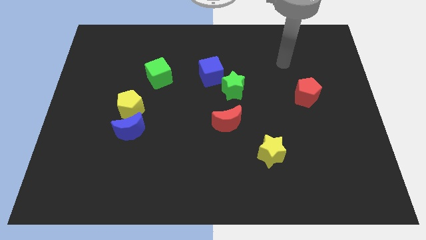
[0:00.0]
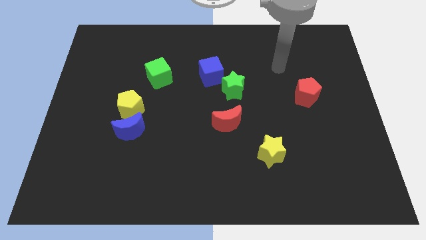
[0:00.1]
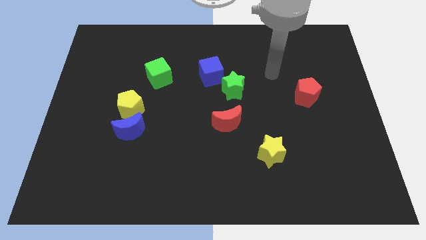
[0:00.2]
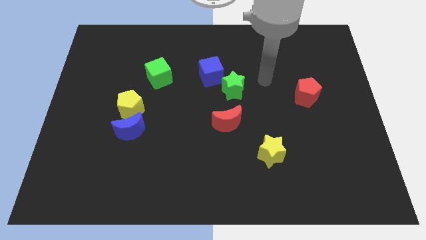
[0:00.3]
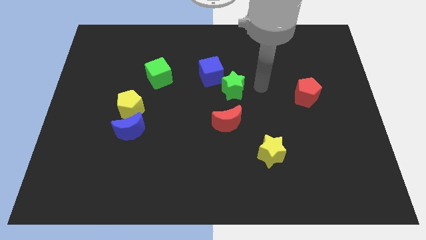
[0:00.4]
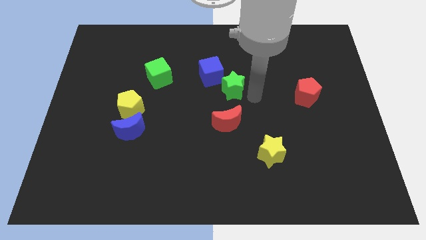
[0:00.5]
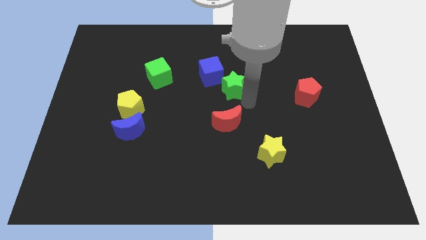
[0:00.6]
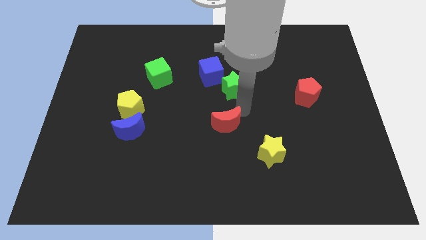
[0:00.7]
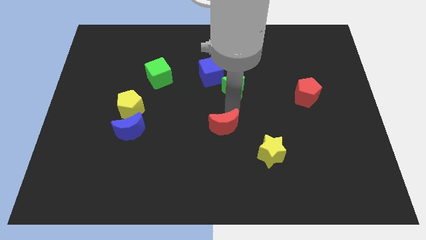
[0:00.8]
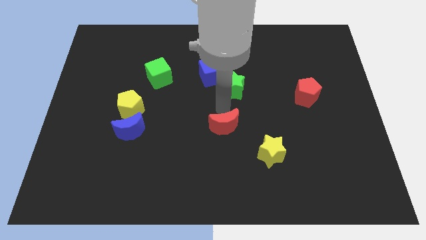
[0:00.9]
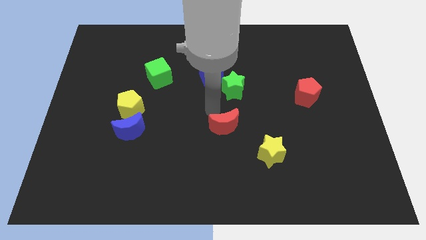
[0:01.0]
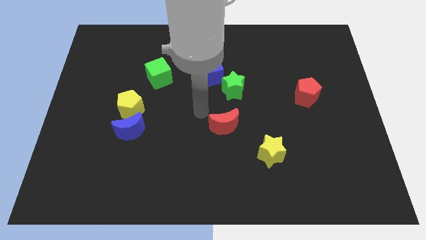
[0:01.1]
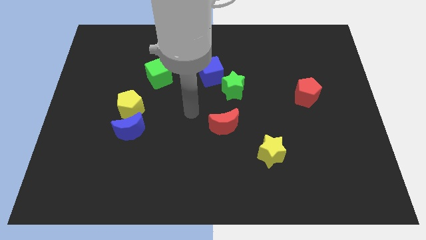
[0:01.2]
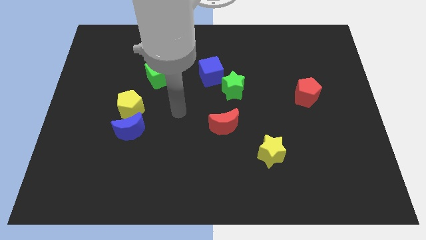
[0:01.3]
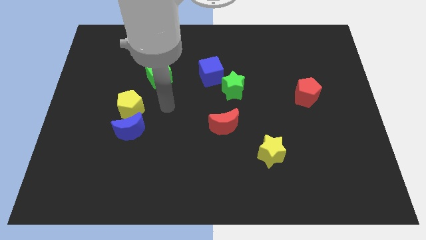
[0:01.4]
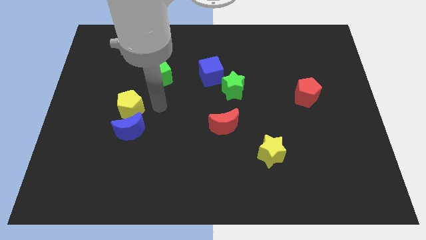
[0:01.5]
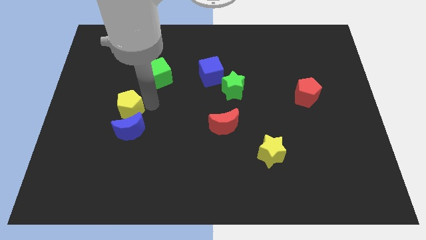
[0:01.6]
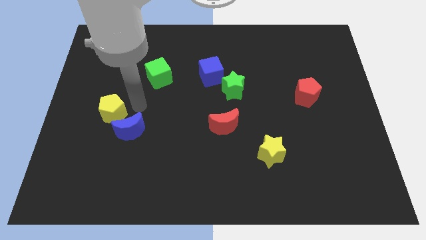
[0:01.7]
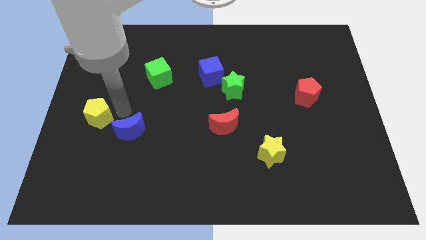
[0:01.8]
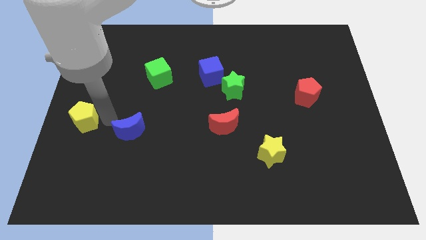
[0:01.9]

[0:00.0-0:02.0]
move the blue moon away from the yellow pentagon

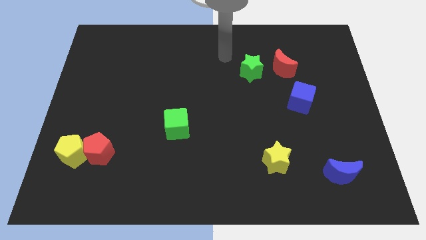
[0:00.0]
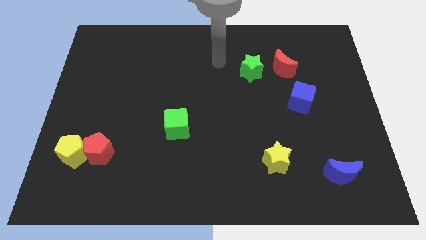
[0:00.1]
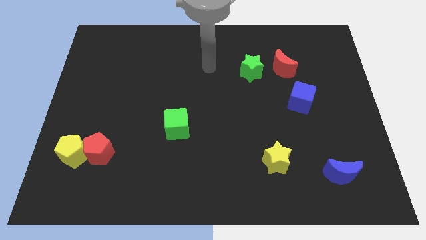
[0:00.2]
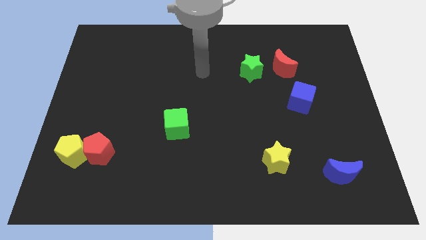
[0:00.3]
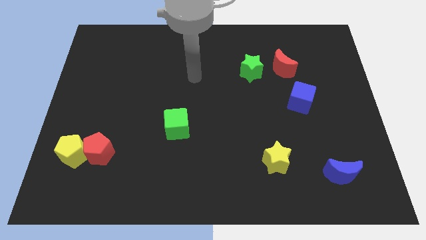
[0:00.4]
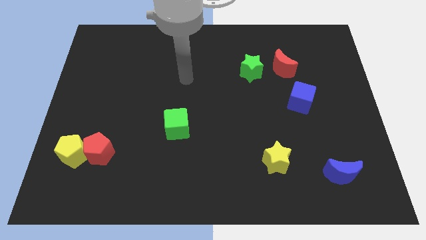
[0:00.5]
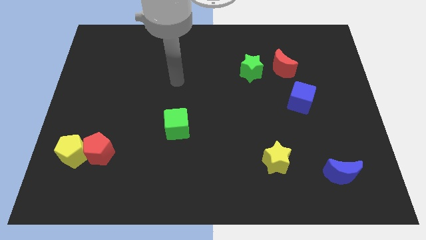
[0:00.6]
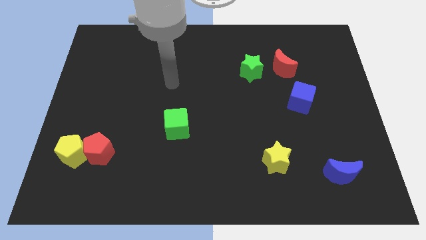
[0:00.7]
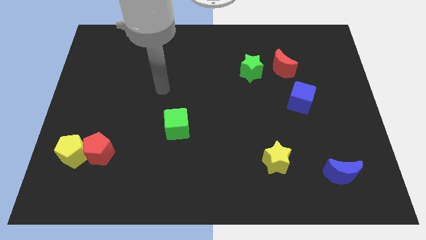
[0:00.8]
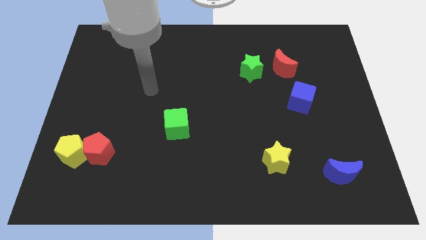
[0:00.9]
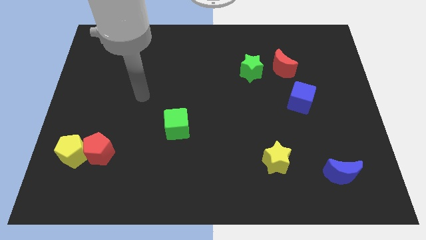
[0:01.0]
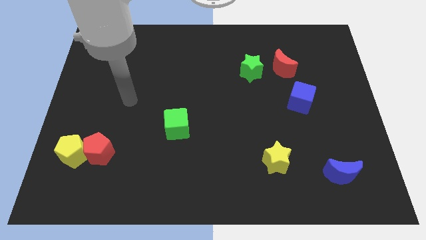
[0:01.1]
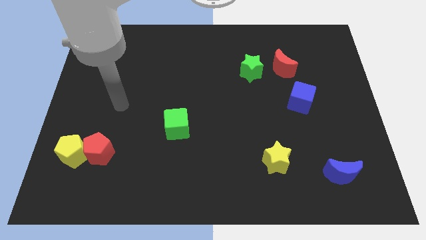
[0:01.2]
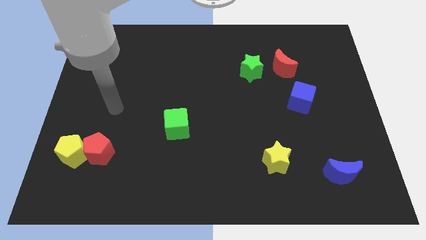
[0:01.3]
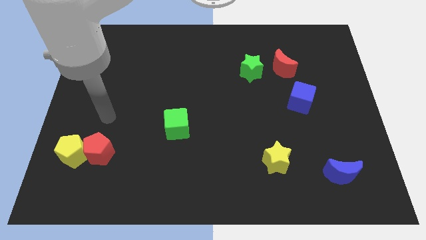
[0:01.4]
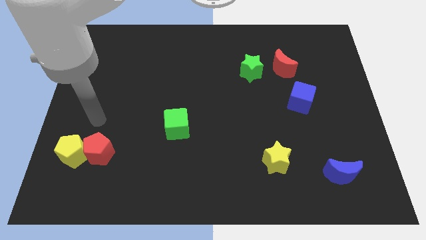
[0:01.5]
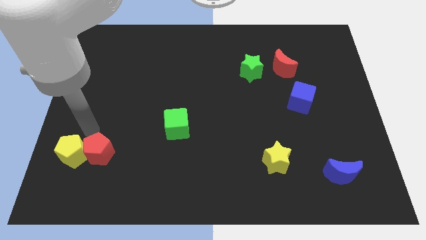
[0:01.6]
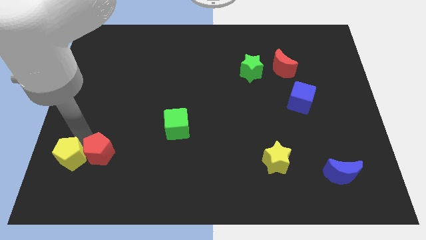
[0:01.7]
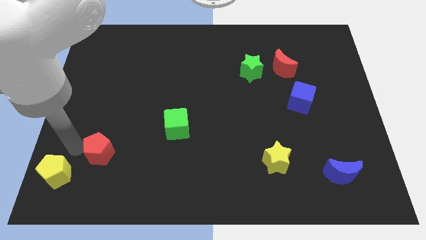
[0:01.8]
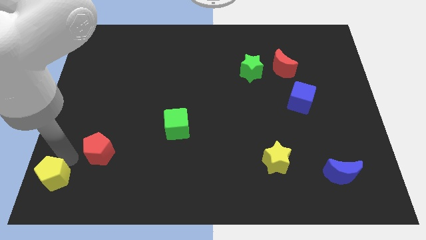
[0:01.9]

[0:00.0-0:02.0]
separate the red pentagon from the yellow pentagon

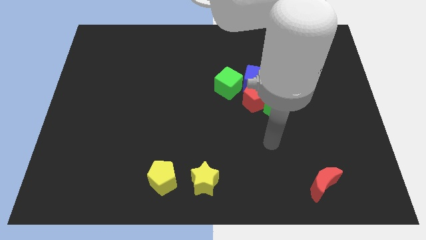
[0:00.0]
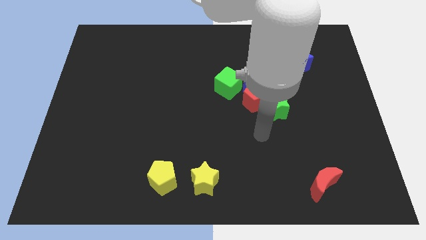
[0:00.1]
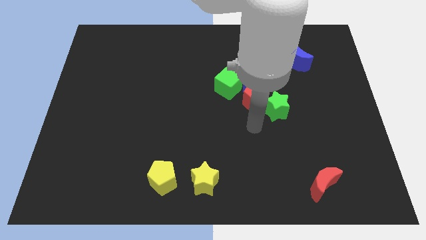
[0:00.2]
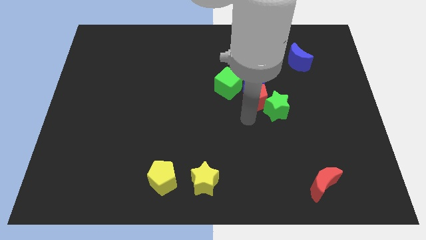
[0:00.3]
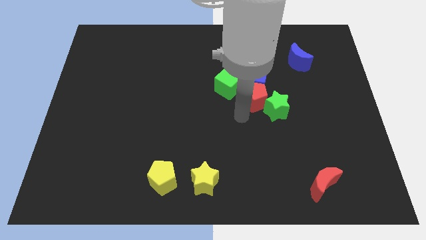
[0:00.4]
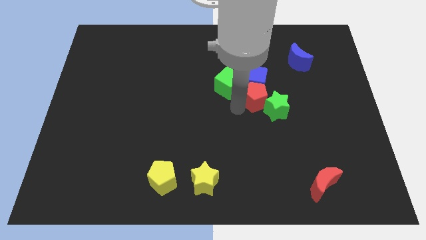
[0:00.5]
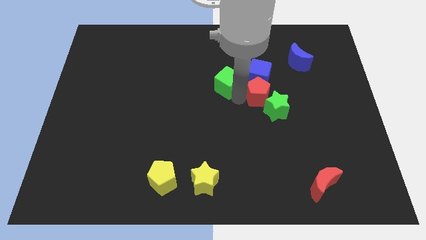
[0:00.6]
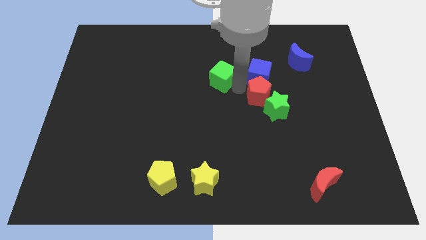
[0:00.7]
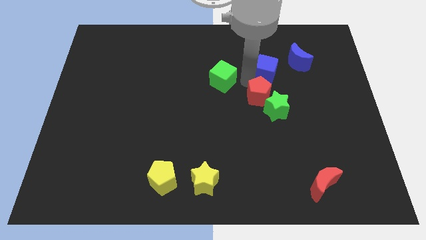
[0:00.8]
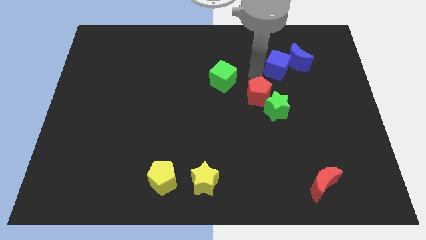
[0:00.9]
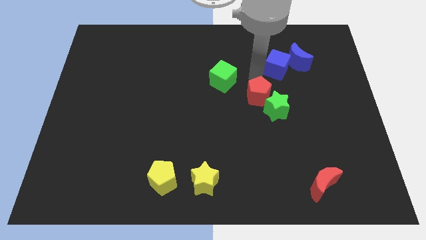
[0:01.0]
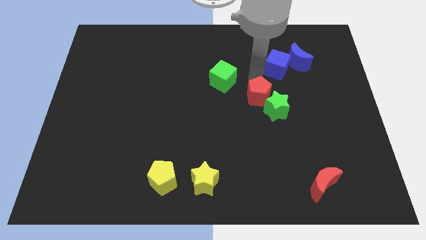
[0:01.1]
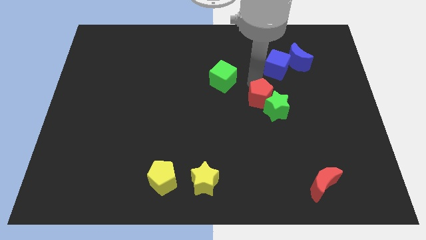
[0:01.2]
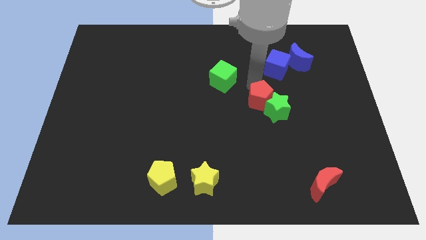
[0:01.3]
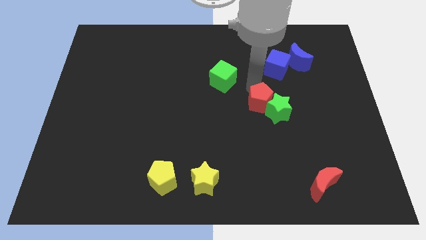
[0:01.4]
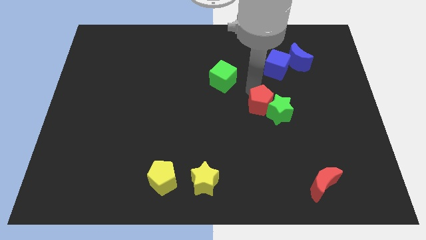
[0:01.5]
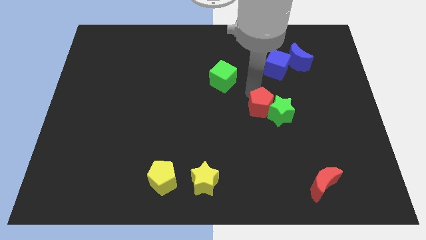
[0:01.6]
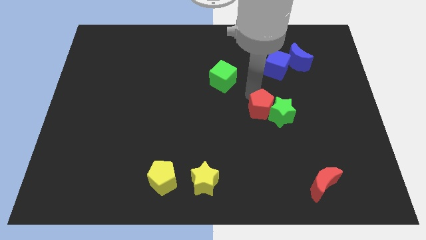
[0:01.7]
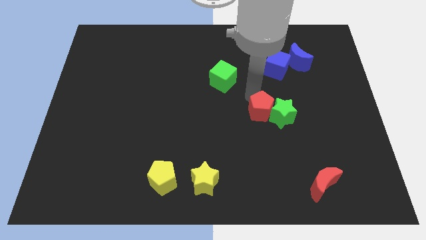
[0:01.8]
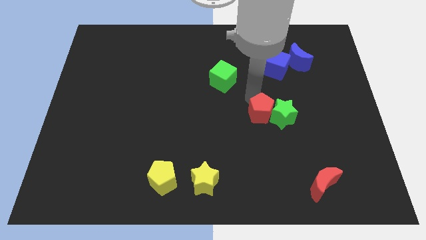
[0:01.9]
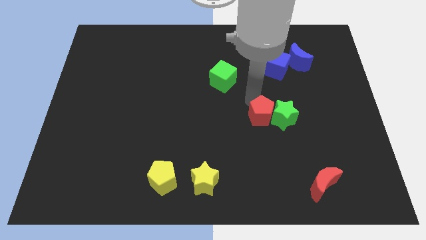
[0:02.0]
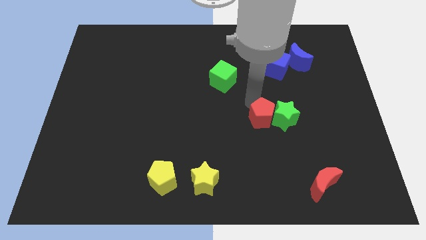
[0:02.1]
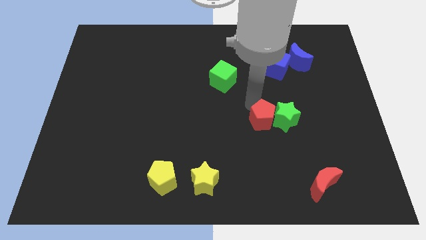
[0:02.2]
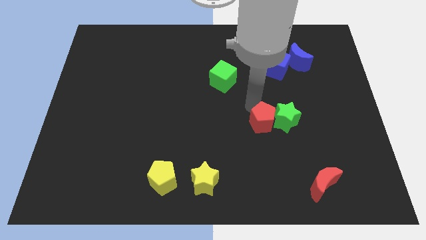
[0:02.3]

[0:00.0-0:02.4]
separate the red pentagon from the group of blocks

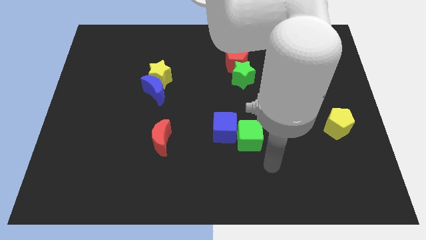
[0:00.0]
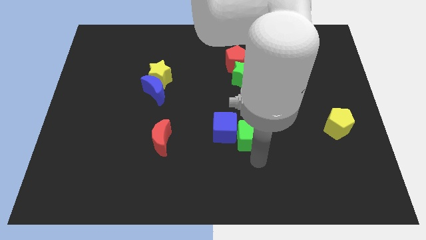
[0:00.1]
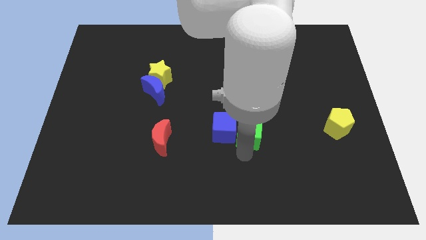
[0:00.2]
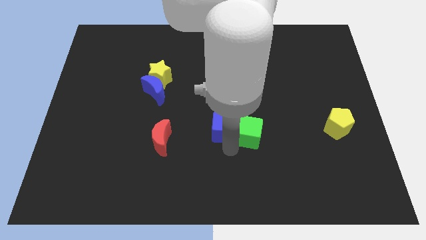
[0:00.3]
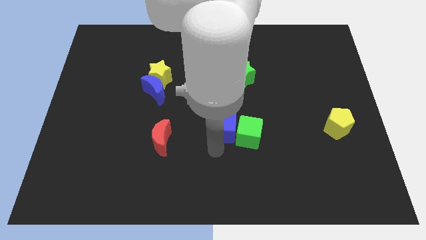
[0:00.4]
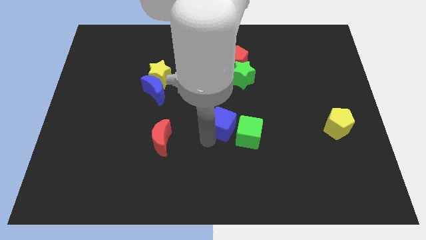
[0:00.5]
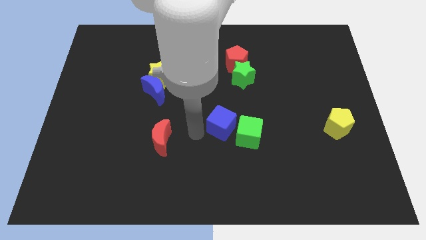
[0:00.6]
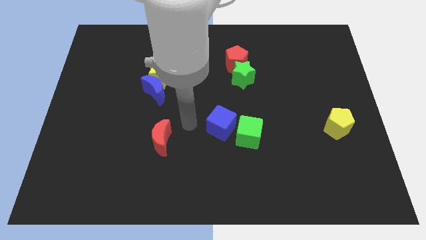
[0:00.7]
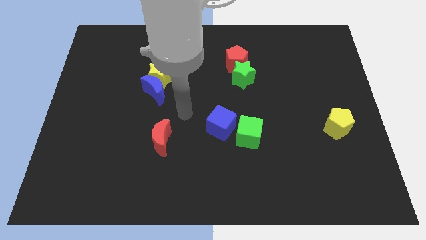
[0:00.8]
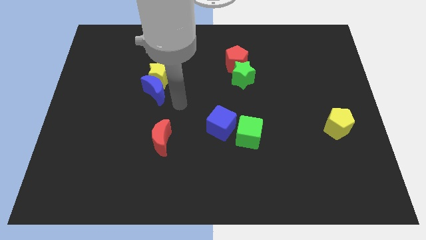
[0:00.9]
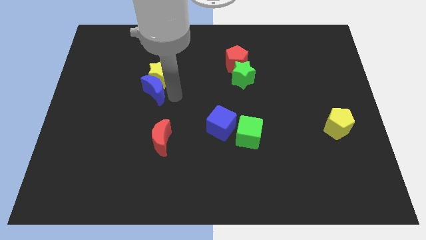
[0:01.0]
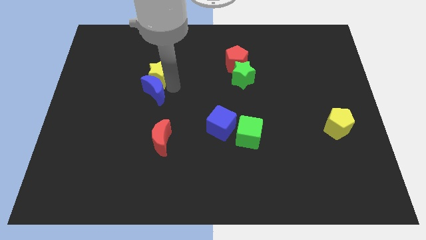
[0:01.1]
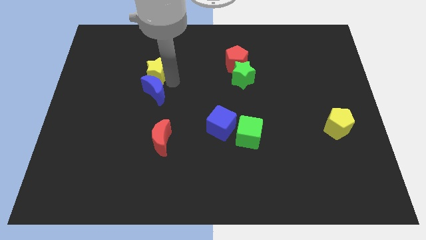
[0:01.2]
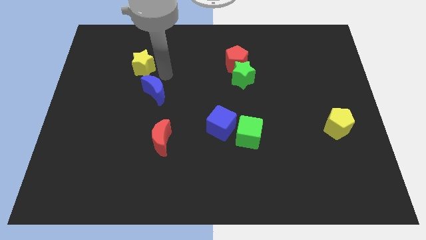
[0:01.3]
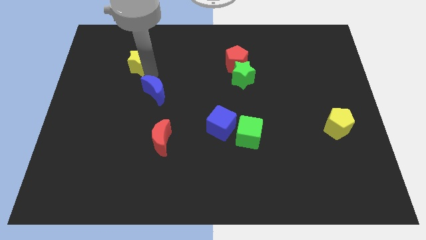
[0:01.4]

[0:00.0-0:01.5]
pull the blue moon apart from the yellow star

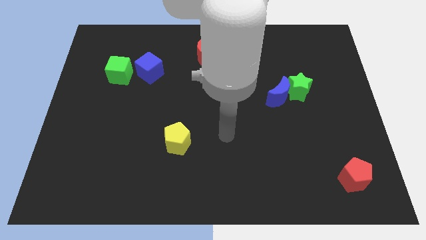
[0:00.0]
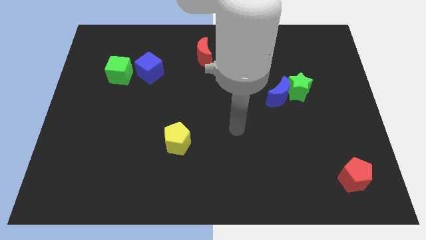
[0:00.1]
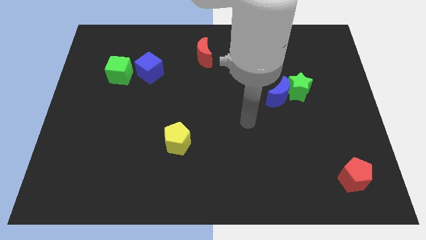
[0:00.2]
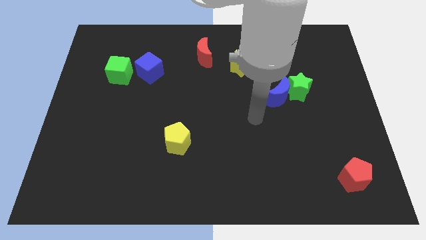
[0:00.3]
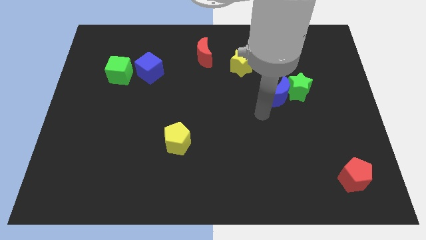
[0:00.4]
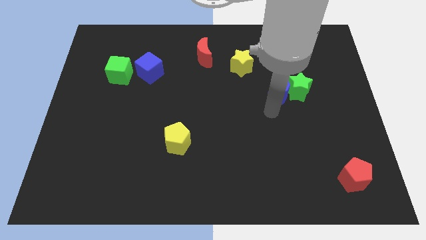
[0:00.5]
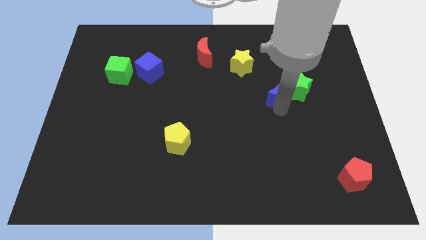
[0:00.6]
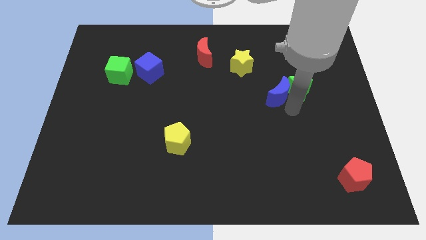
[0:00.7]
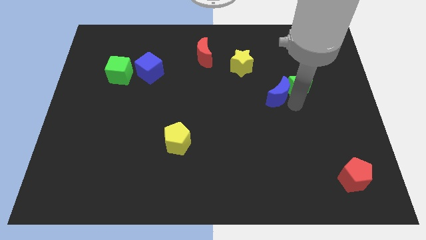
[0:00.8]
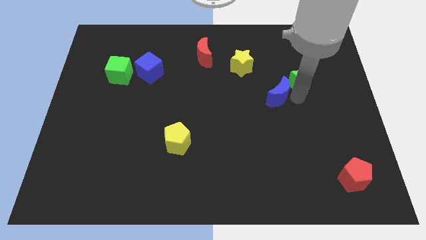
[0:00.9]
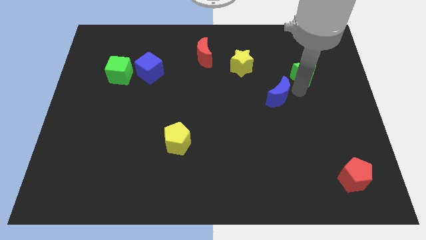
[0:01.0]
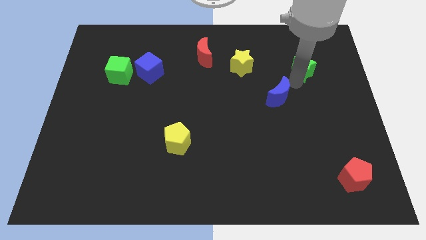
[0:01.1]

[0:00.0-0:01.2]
move the blue moon away from the green star

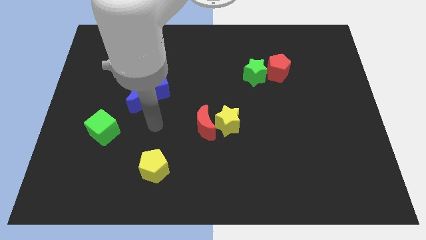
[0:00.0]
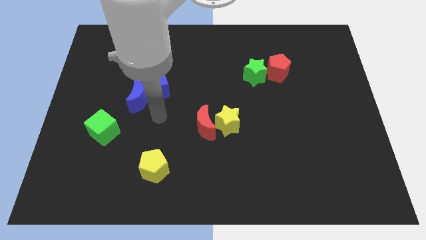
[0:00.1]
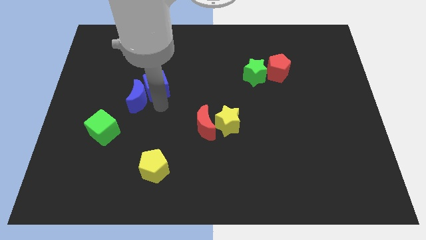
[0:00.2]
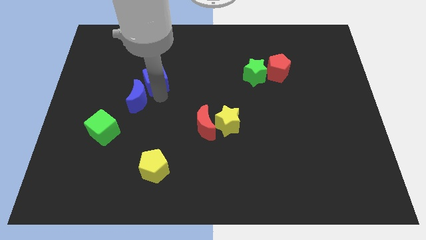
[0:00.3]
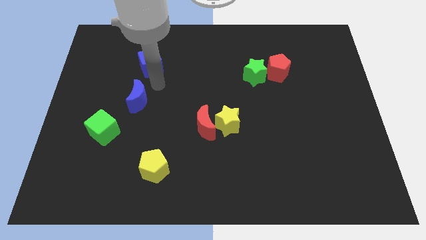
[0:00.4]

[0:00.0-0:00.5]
pull the blue moon apart from the blue cube
